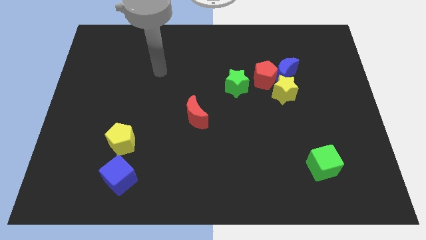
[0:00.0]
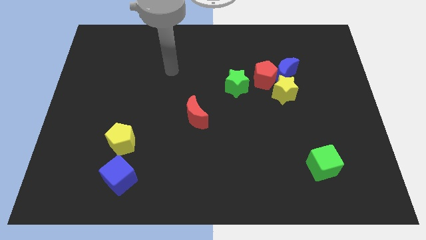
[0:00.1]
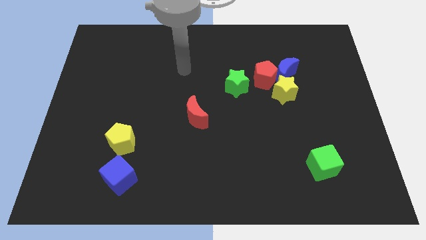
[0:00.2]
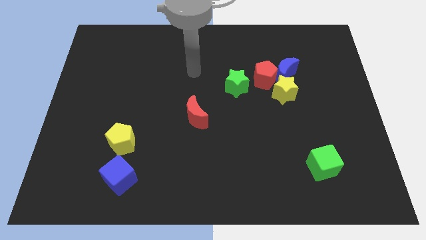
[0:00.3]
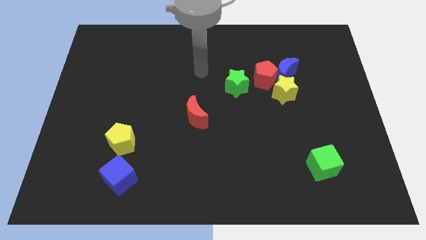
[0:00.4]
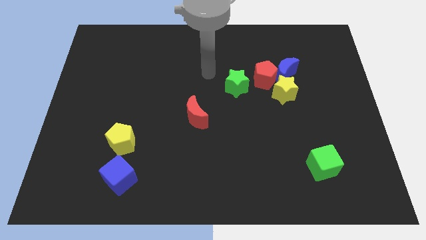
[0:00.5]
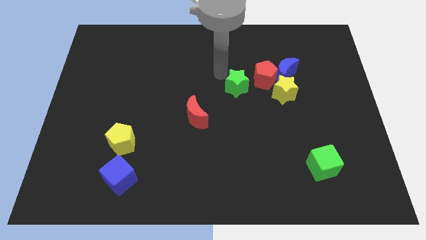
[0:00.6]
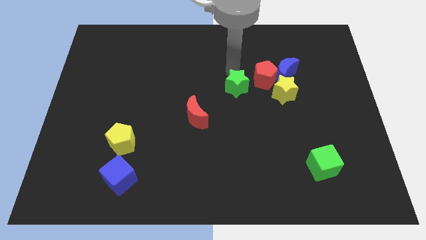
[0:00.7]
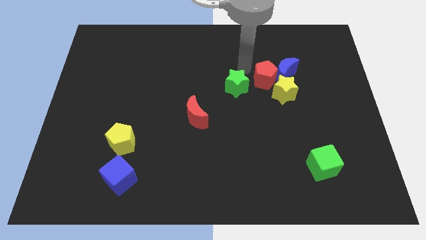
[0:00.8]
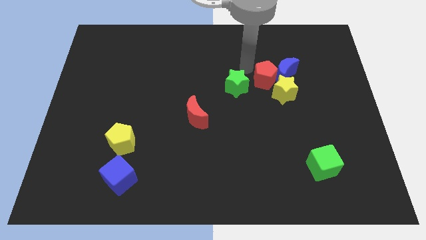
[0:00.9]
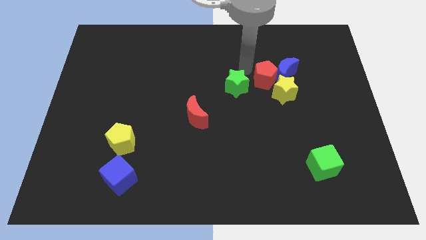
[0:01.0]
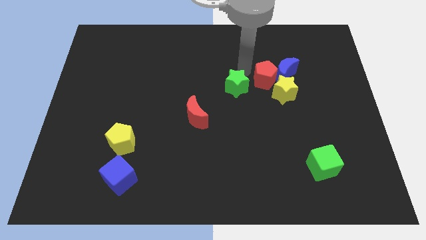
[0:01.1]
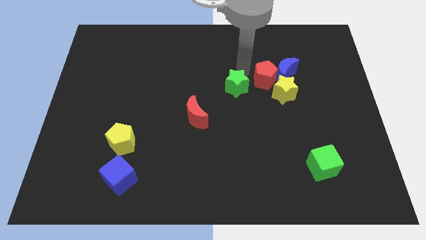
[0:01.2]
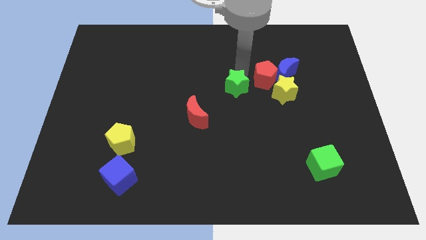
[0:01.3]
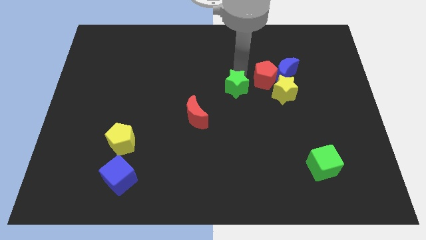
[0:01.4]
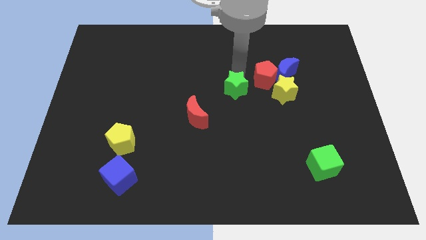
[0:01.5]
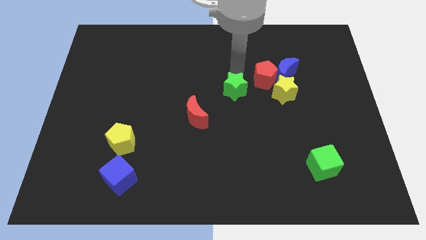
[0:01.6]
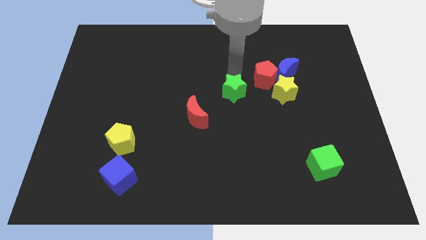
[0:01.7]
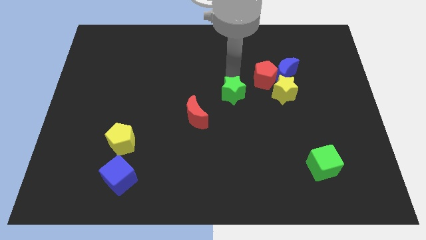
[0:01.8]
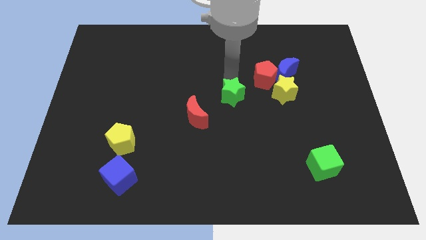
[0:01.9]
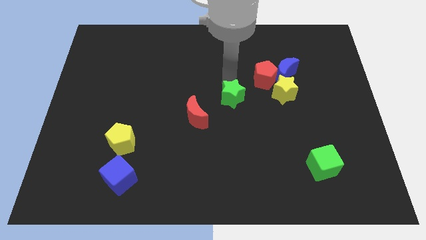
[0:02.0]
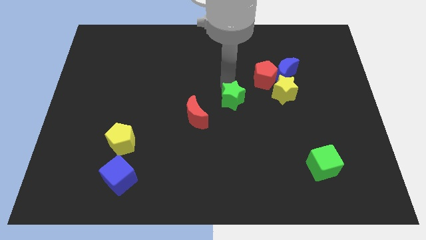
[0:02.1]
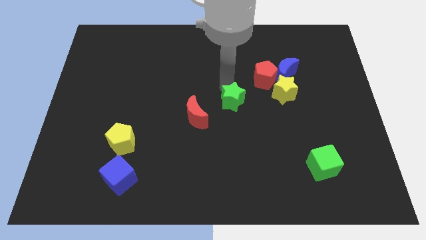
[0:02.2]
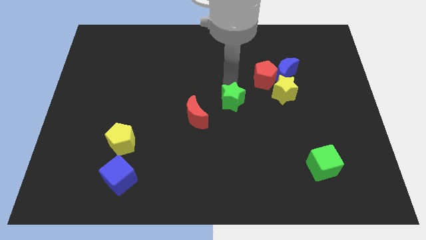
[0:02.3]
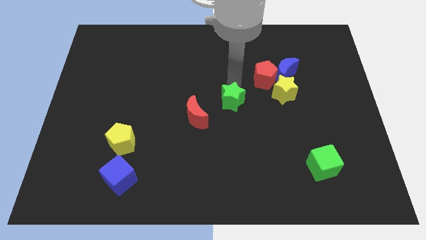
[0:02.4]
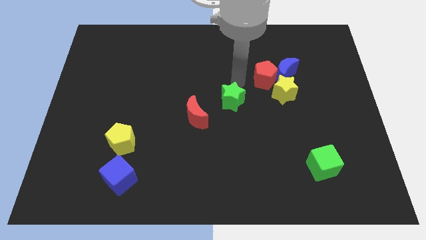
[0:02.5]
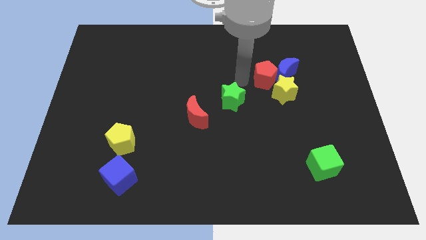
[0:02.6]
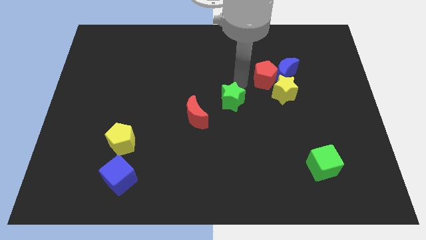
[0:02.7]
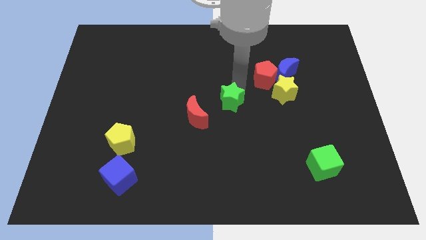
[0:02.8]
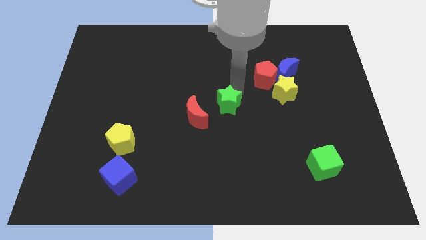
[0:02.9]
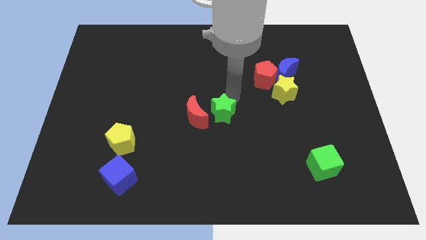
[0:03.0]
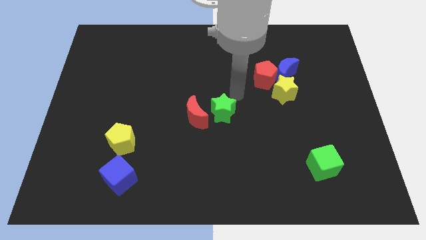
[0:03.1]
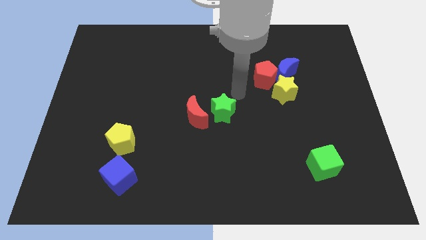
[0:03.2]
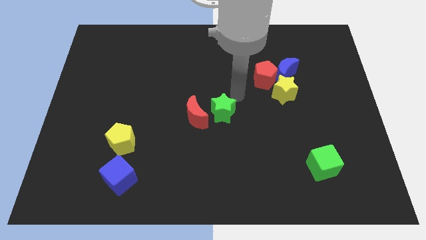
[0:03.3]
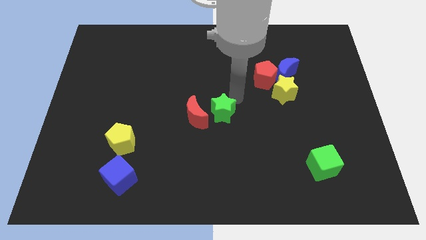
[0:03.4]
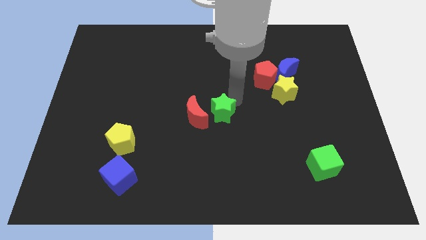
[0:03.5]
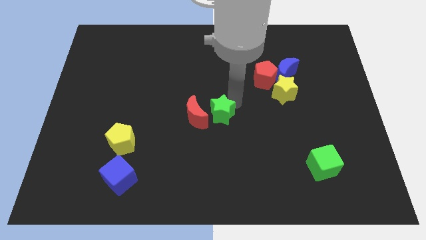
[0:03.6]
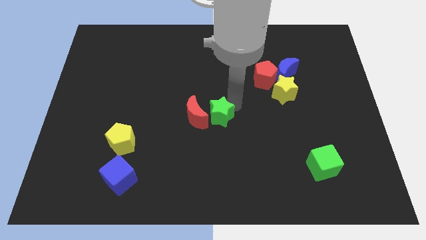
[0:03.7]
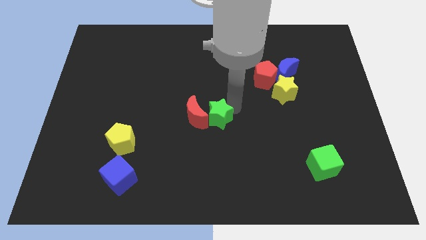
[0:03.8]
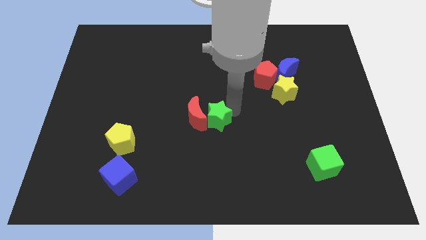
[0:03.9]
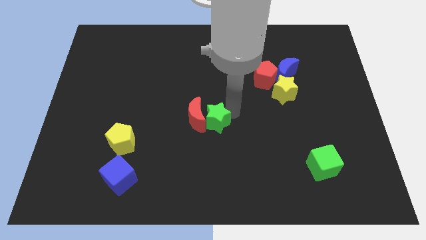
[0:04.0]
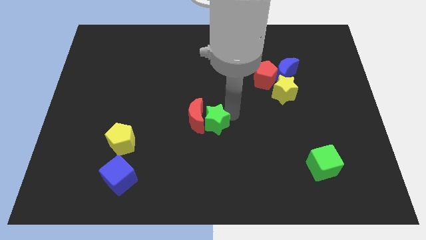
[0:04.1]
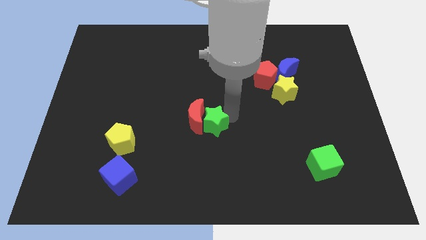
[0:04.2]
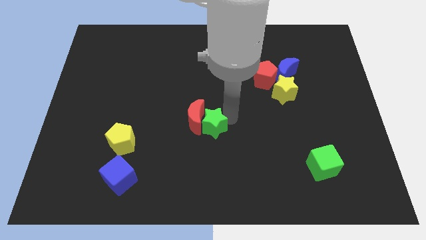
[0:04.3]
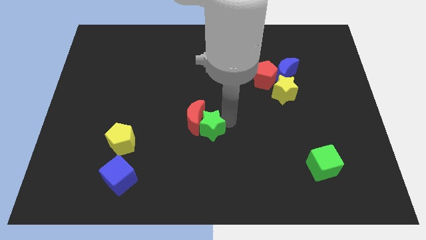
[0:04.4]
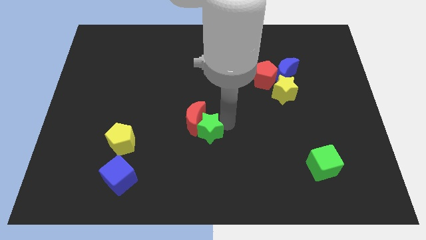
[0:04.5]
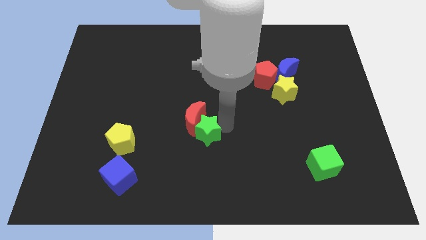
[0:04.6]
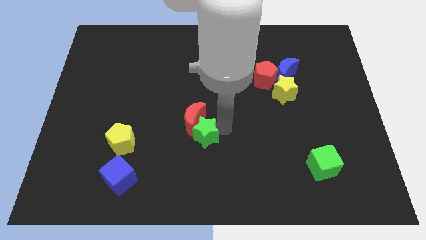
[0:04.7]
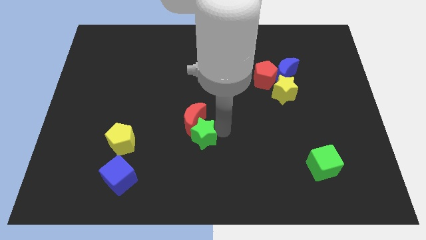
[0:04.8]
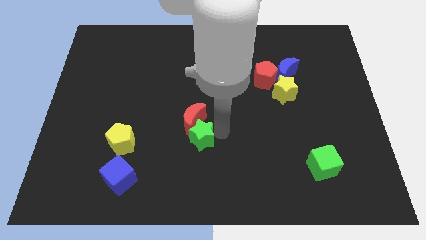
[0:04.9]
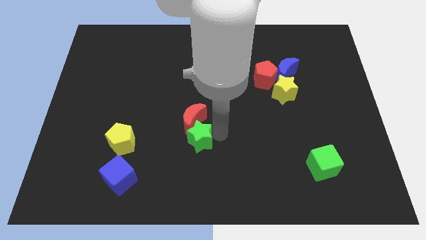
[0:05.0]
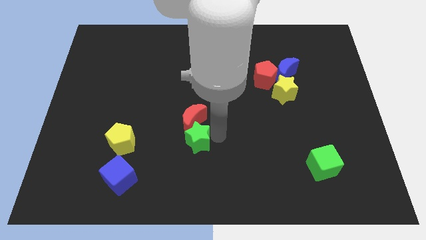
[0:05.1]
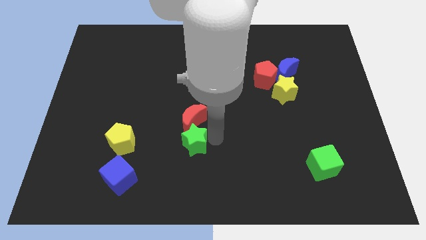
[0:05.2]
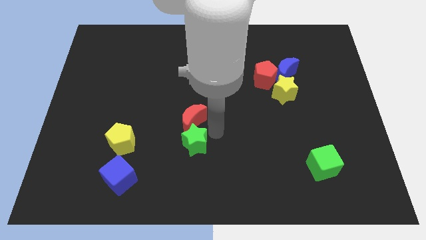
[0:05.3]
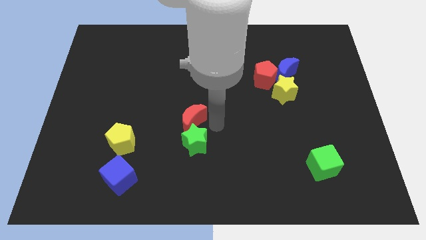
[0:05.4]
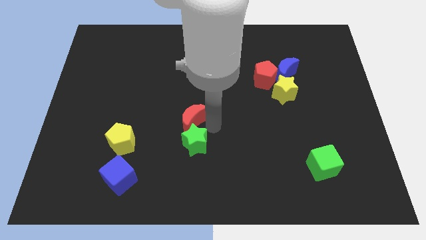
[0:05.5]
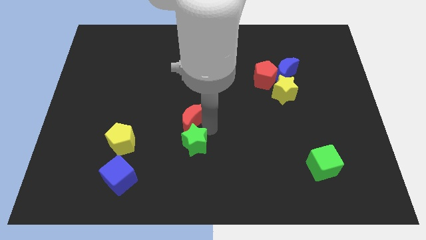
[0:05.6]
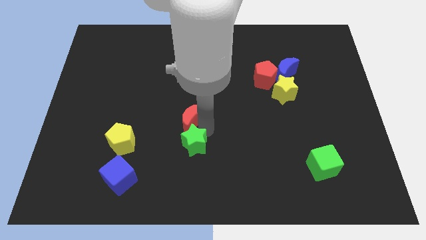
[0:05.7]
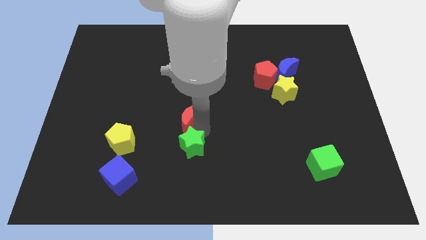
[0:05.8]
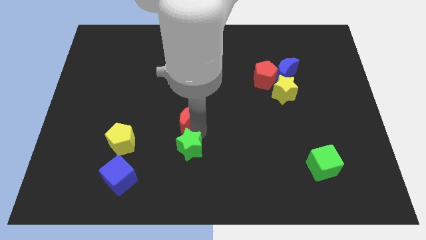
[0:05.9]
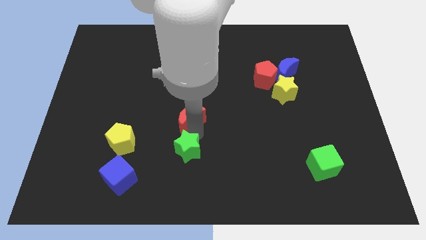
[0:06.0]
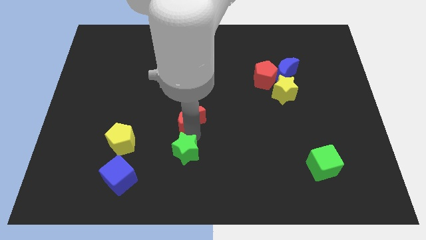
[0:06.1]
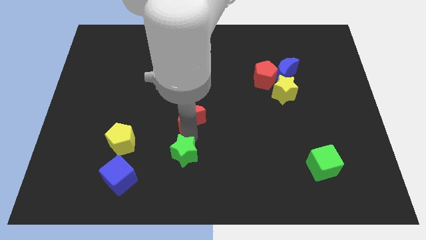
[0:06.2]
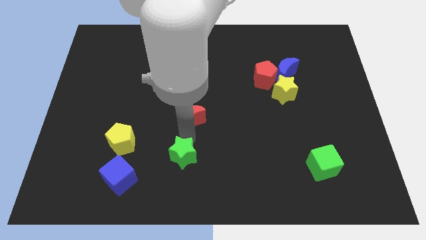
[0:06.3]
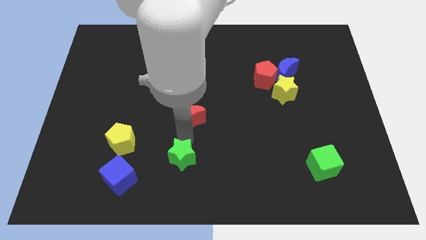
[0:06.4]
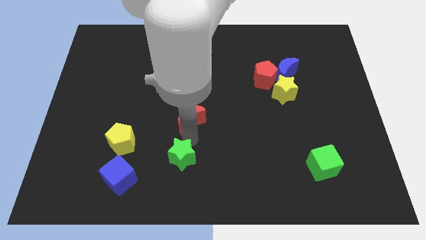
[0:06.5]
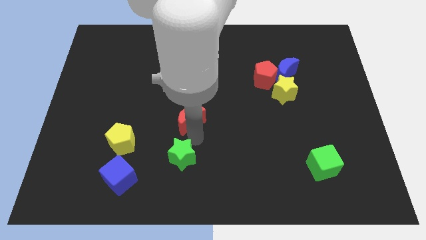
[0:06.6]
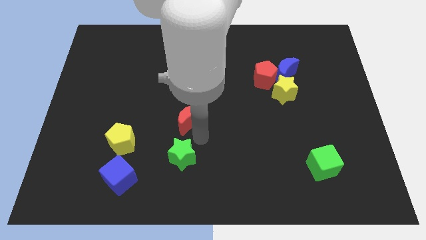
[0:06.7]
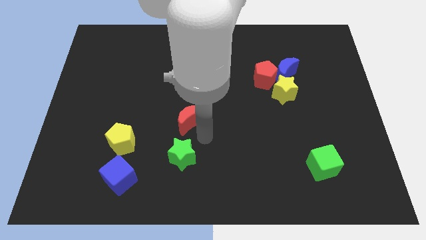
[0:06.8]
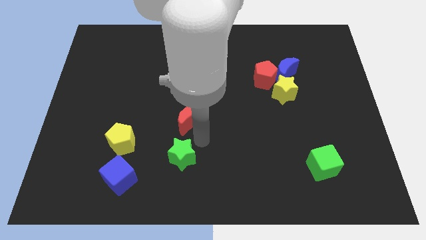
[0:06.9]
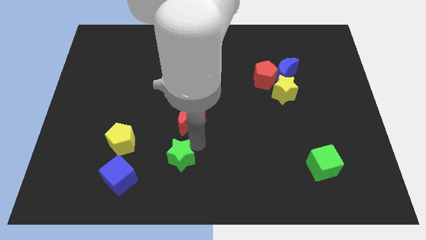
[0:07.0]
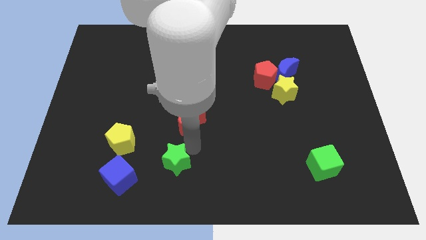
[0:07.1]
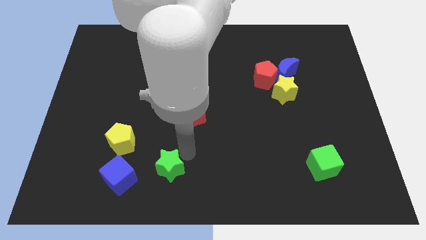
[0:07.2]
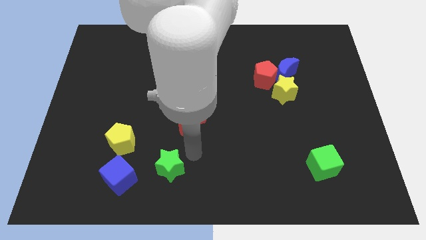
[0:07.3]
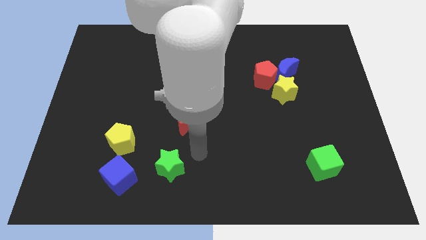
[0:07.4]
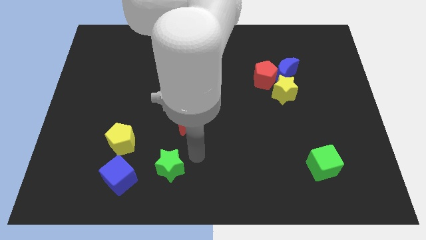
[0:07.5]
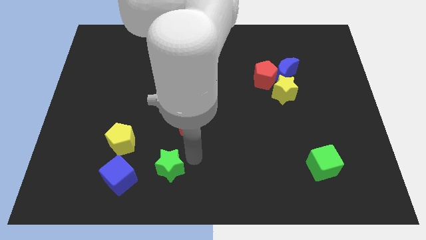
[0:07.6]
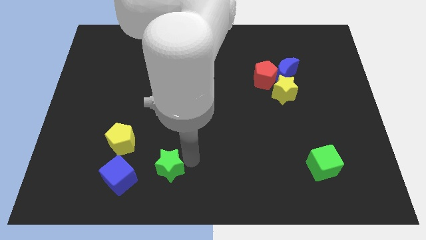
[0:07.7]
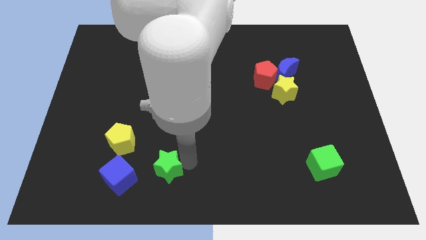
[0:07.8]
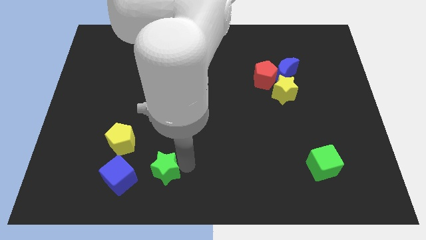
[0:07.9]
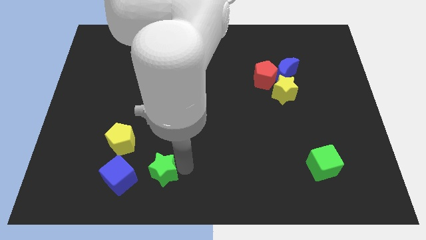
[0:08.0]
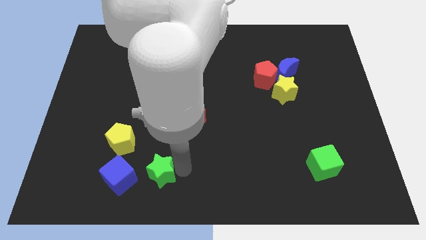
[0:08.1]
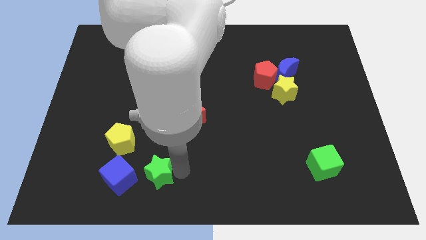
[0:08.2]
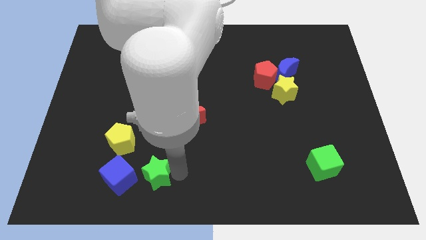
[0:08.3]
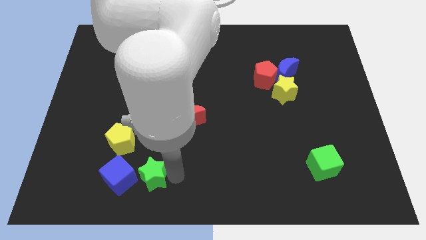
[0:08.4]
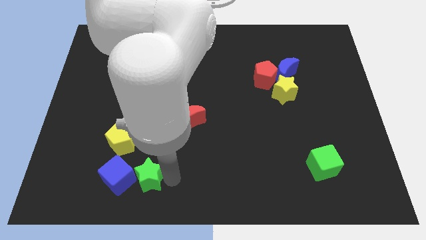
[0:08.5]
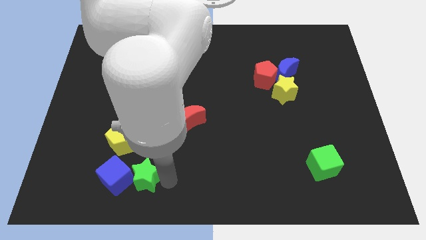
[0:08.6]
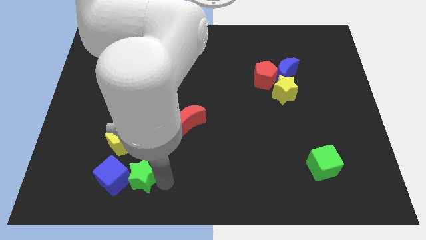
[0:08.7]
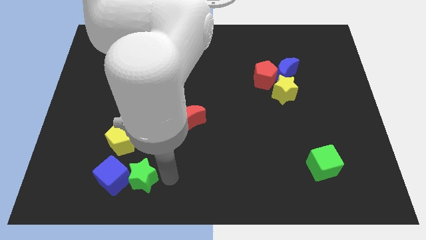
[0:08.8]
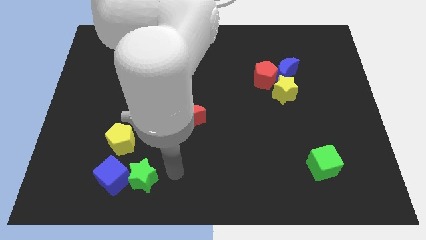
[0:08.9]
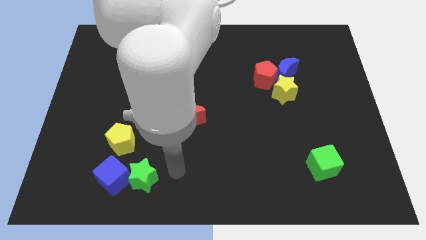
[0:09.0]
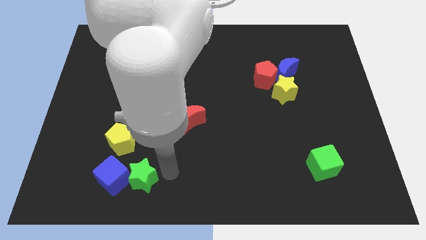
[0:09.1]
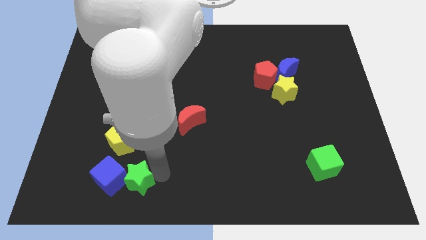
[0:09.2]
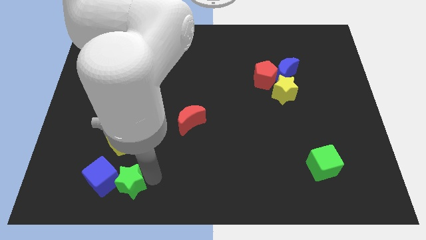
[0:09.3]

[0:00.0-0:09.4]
put the green star to the bottom side of the yellow pentagon
